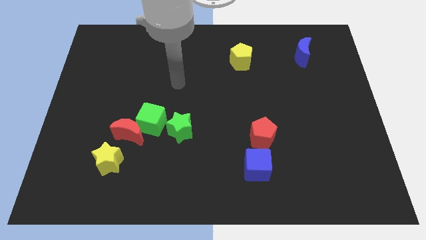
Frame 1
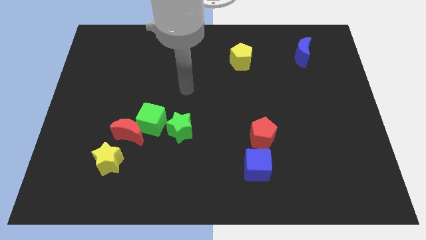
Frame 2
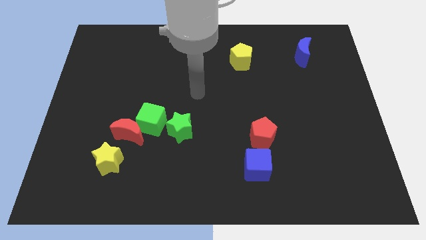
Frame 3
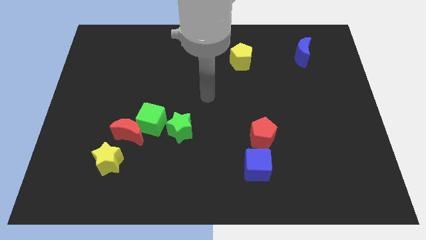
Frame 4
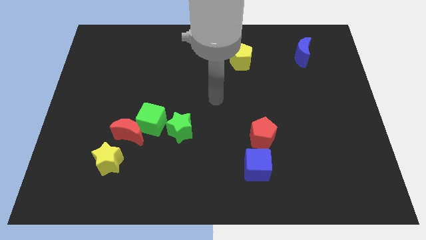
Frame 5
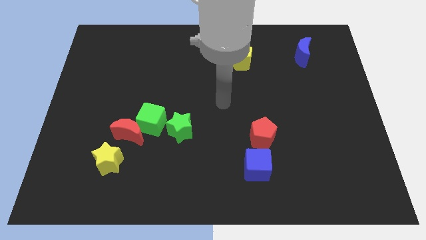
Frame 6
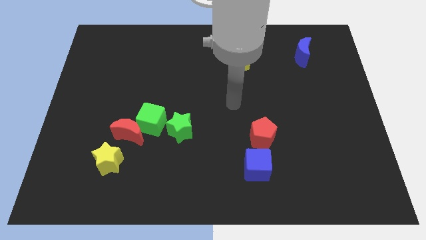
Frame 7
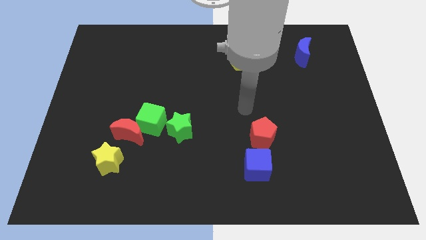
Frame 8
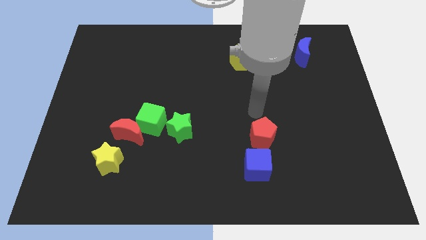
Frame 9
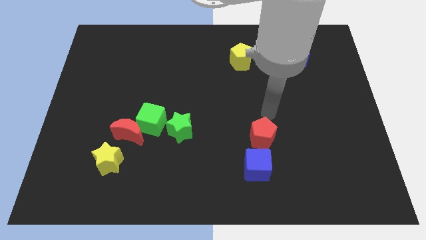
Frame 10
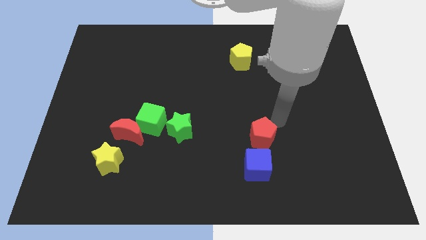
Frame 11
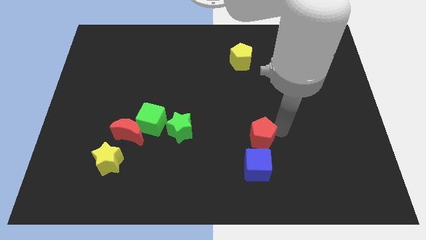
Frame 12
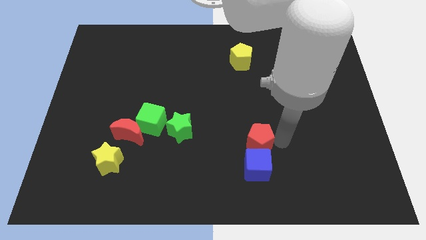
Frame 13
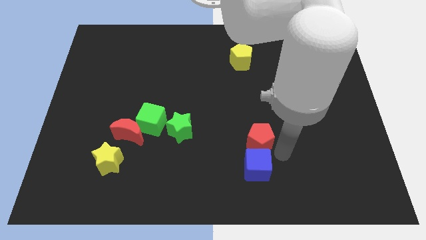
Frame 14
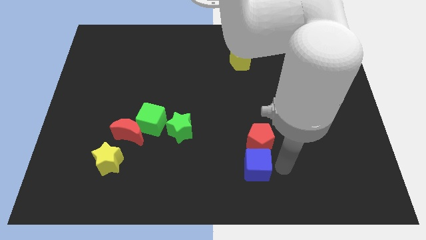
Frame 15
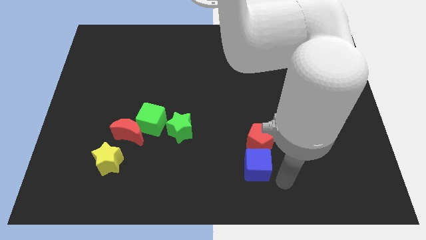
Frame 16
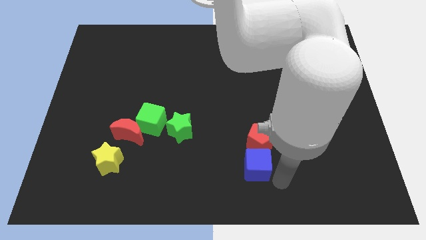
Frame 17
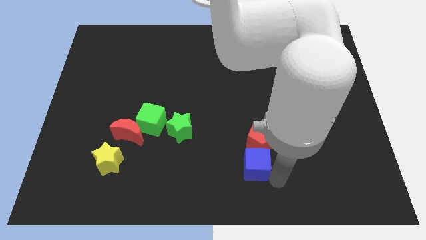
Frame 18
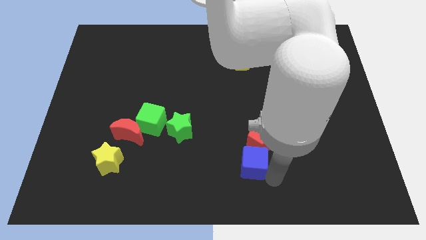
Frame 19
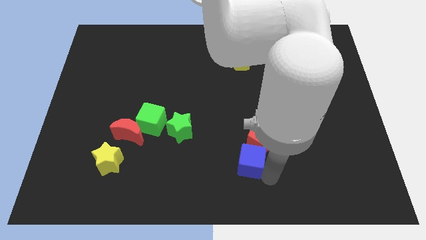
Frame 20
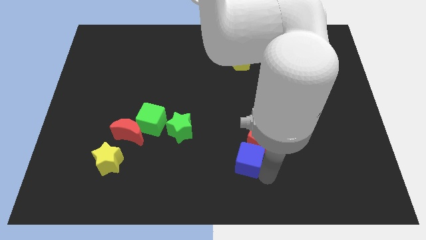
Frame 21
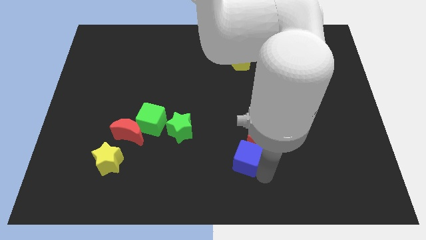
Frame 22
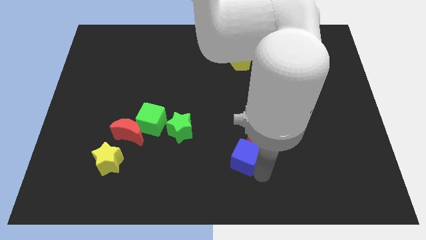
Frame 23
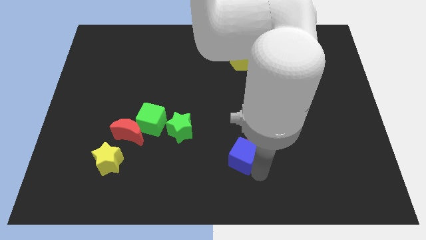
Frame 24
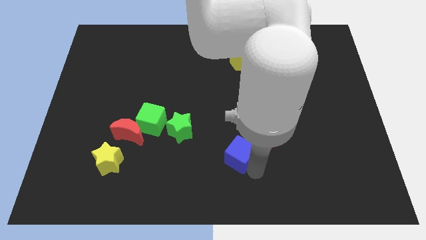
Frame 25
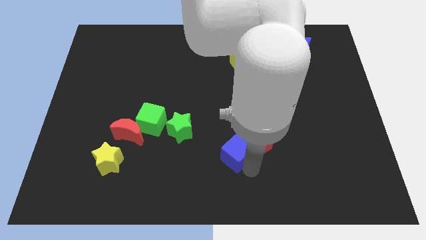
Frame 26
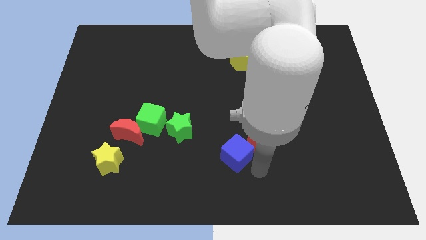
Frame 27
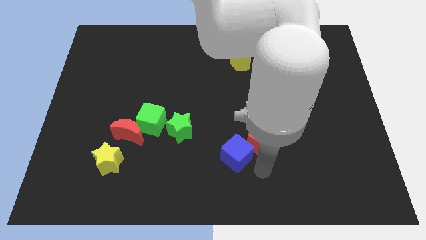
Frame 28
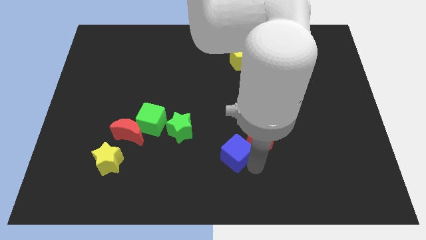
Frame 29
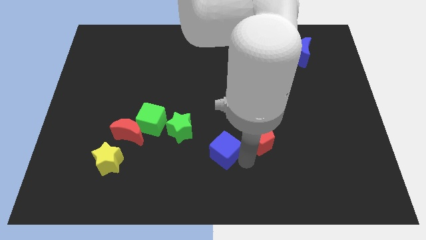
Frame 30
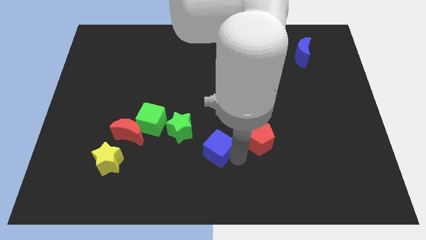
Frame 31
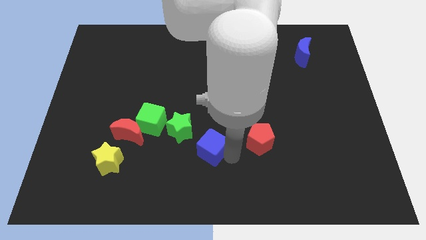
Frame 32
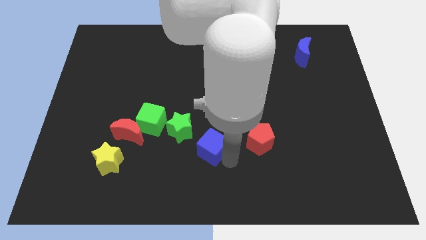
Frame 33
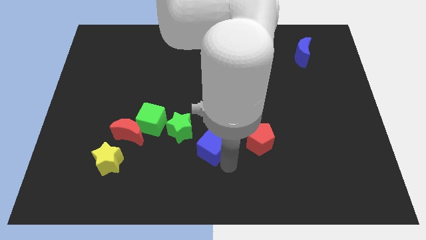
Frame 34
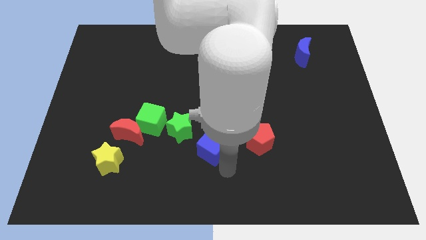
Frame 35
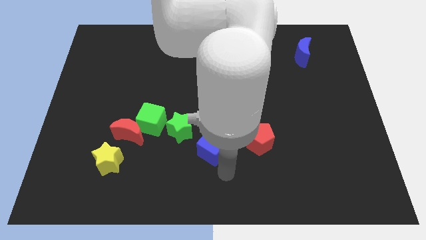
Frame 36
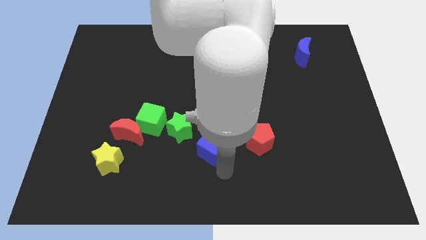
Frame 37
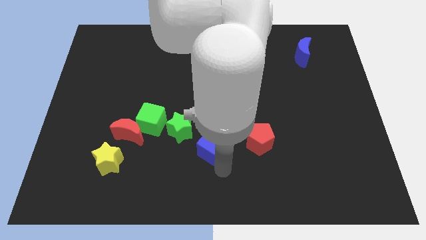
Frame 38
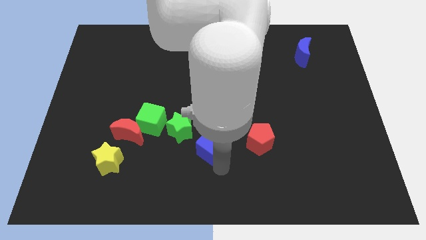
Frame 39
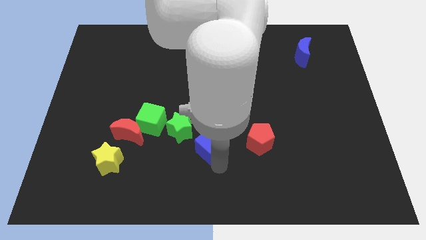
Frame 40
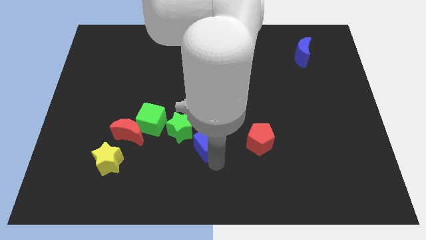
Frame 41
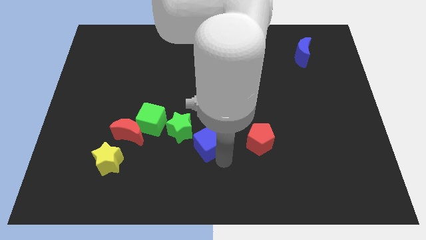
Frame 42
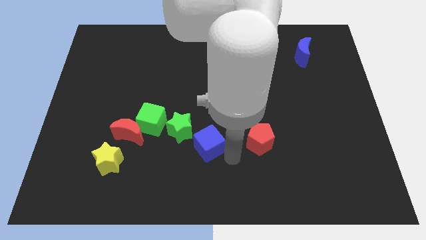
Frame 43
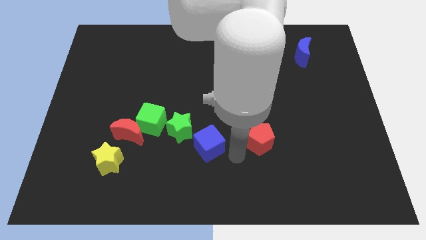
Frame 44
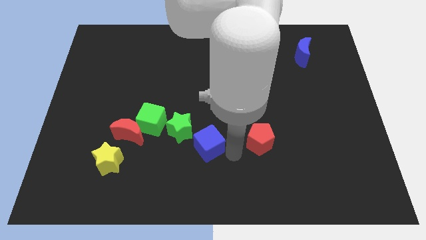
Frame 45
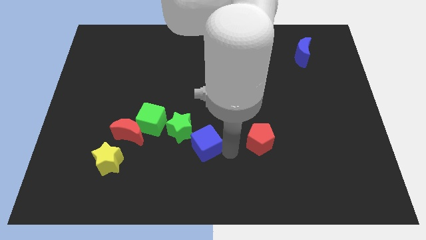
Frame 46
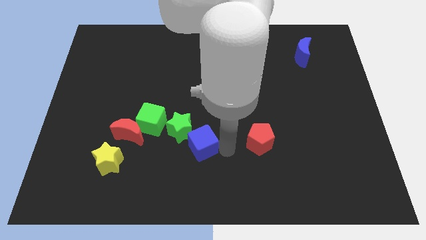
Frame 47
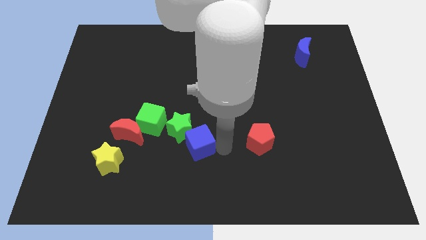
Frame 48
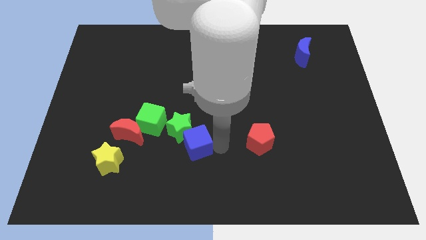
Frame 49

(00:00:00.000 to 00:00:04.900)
move the blue cube right of the red moon

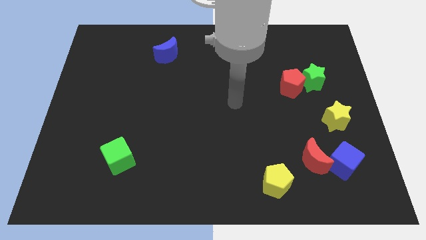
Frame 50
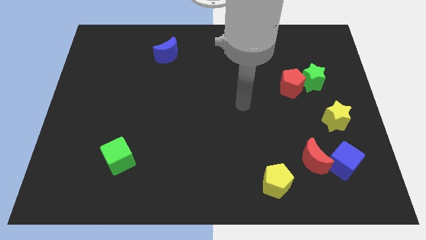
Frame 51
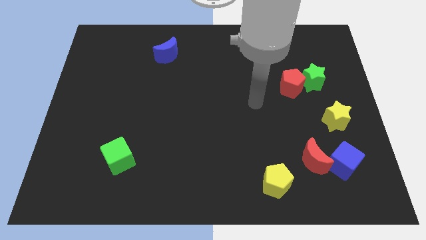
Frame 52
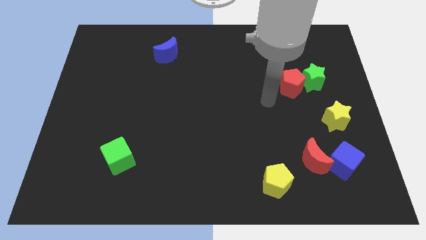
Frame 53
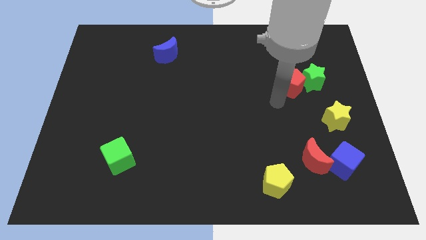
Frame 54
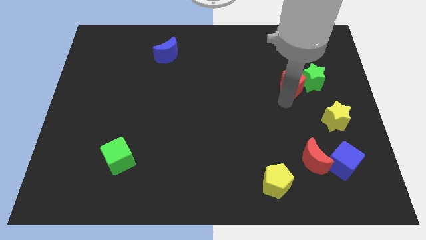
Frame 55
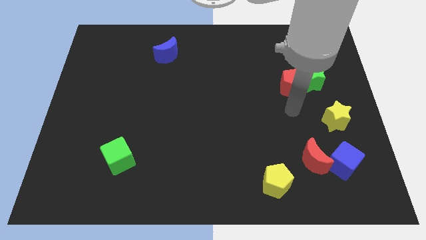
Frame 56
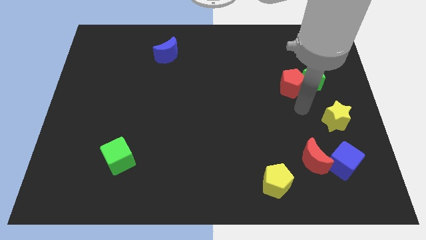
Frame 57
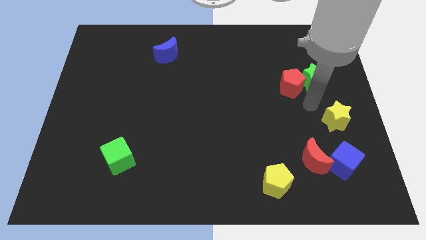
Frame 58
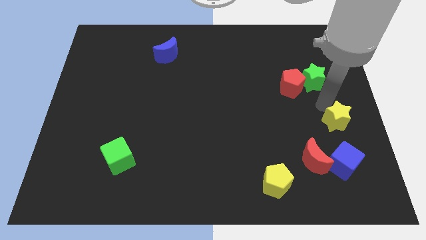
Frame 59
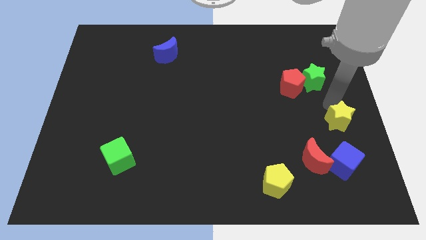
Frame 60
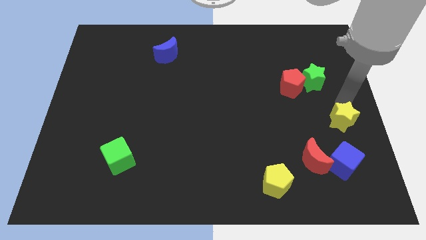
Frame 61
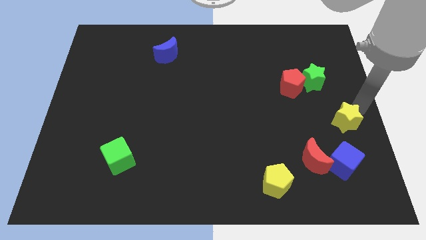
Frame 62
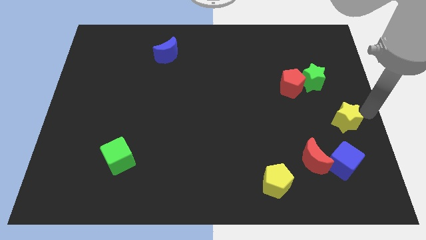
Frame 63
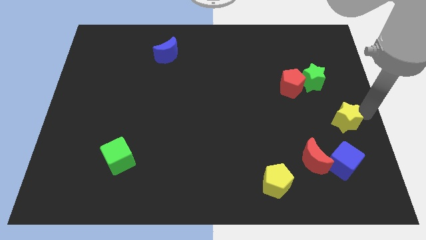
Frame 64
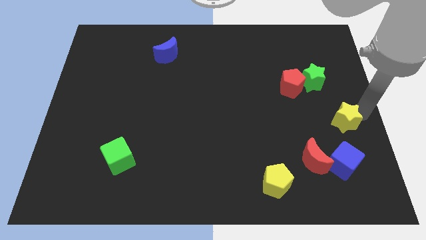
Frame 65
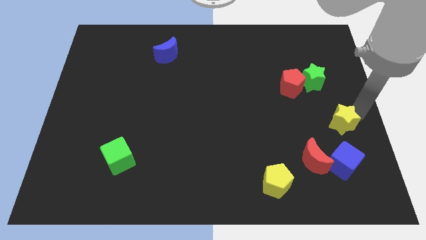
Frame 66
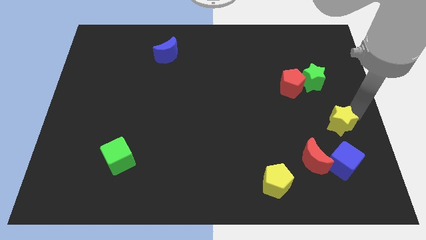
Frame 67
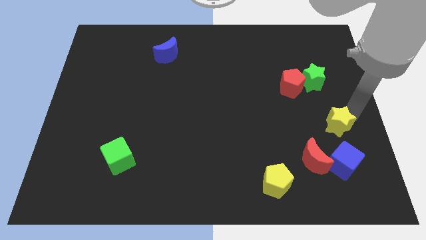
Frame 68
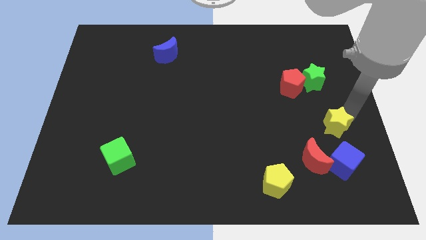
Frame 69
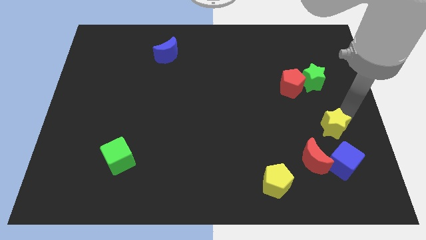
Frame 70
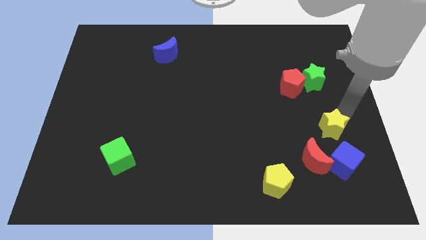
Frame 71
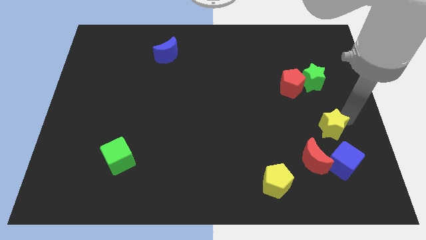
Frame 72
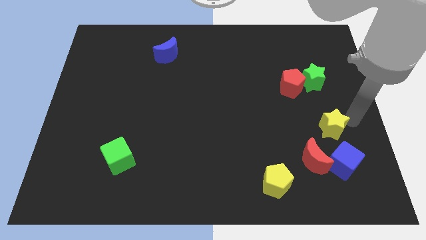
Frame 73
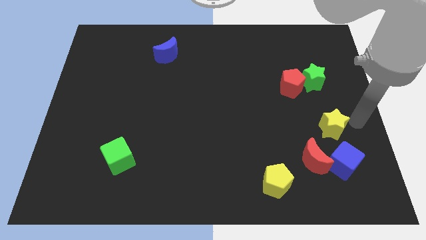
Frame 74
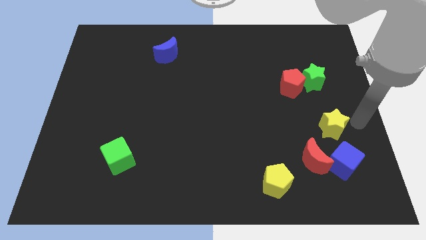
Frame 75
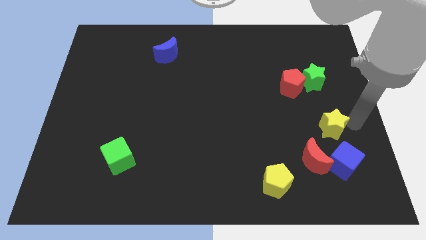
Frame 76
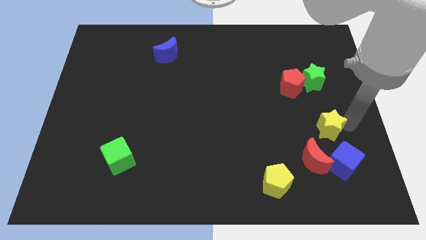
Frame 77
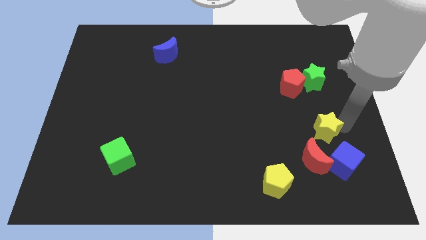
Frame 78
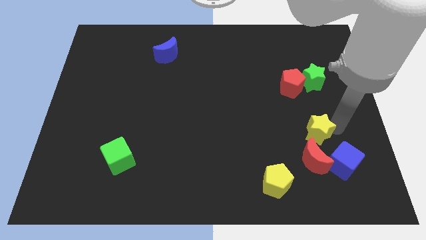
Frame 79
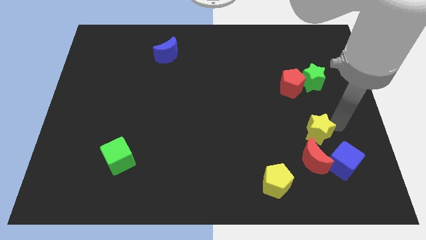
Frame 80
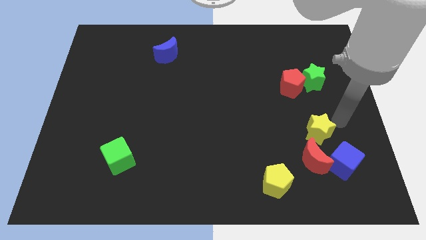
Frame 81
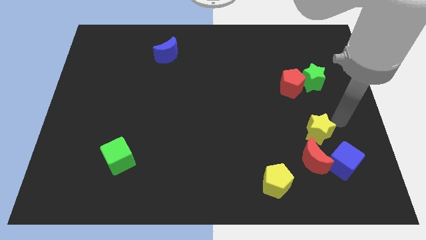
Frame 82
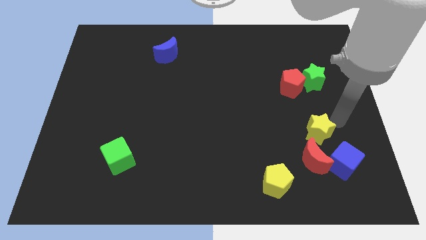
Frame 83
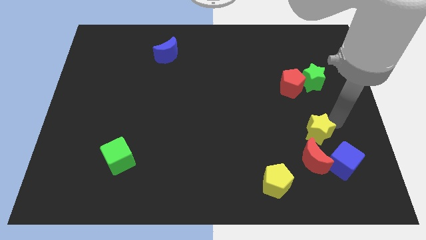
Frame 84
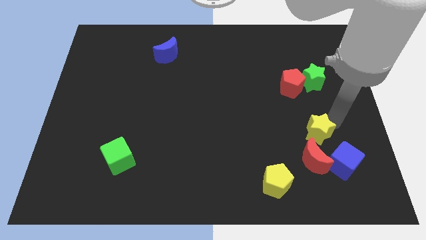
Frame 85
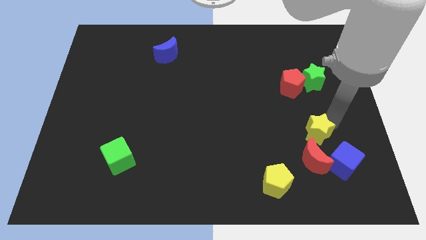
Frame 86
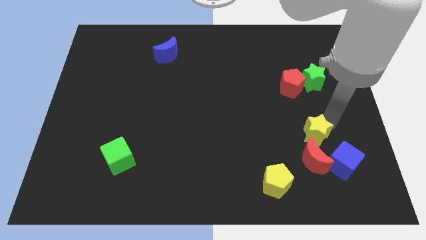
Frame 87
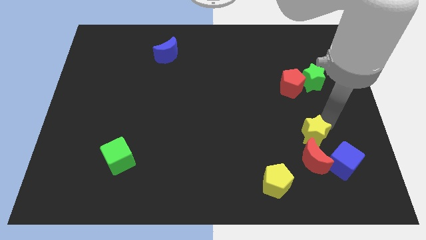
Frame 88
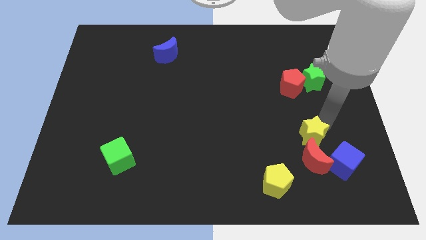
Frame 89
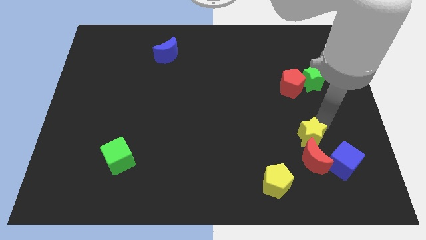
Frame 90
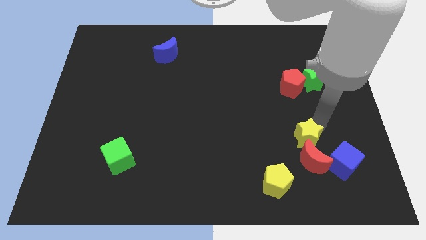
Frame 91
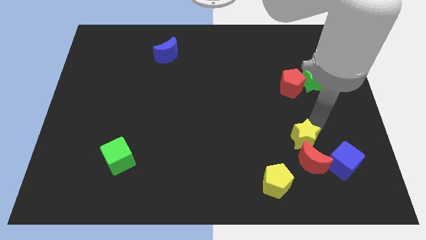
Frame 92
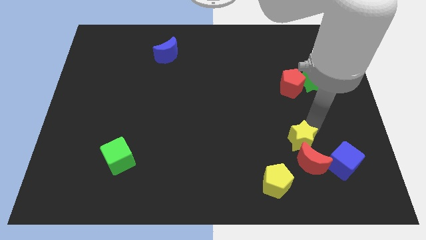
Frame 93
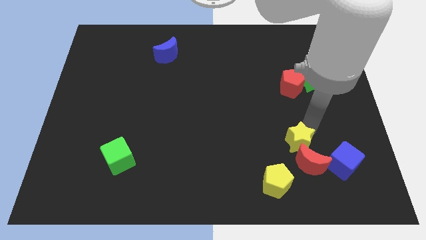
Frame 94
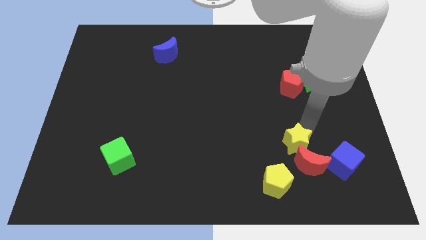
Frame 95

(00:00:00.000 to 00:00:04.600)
push the yellow star to the left side of the blue cube
